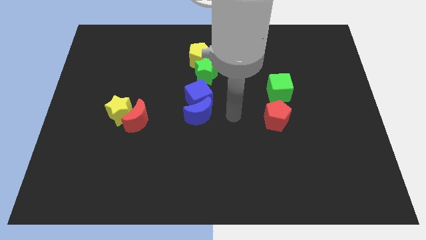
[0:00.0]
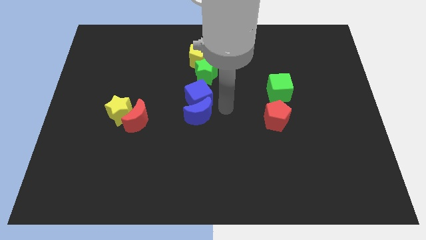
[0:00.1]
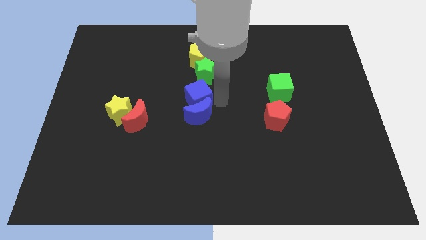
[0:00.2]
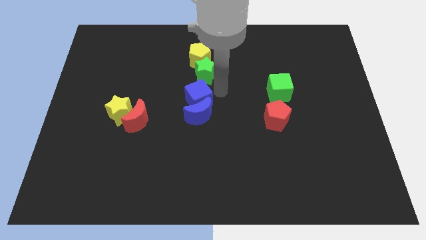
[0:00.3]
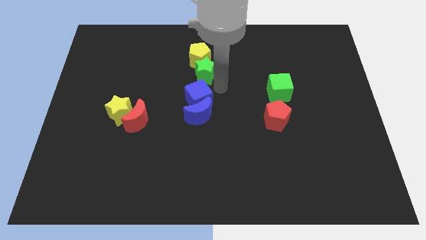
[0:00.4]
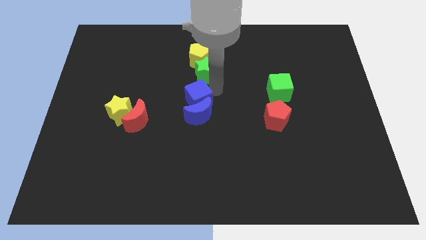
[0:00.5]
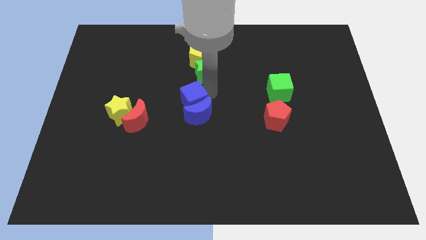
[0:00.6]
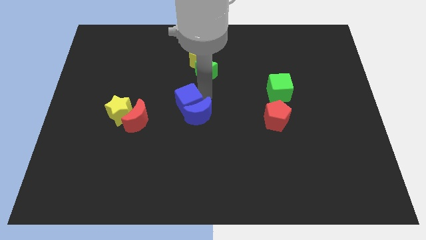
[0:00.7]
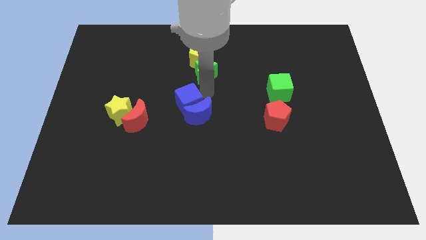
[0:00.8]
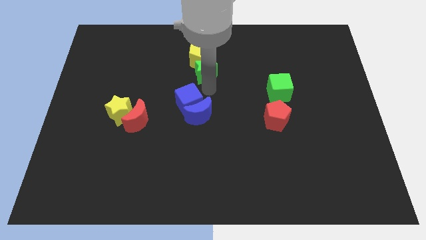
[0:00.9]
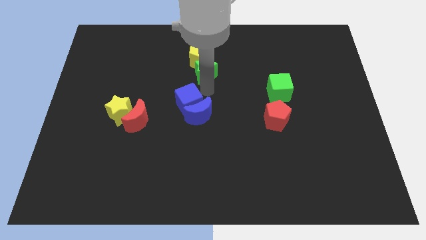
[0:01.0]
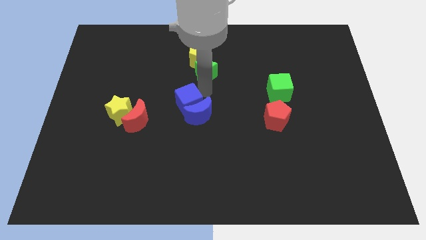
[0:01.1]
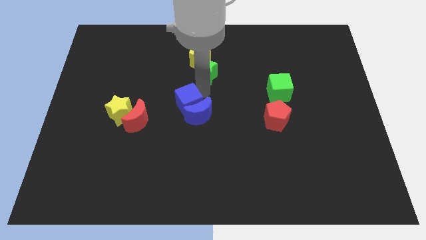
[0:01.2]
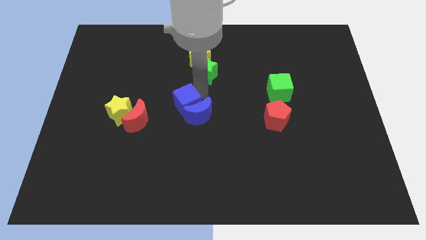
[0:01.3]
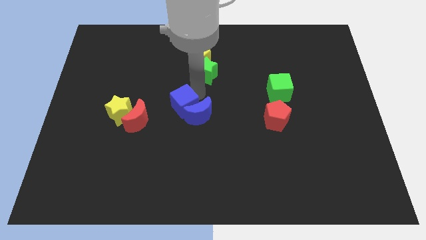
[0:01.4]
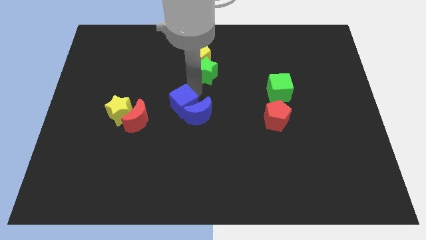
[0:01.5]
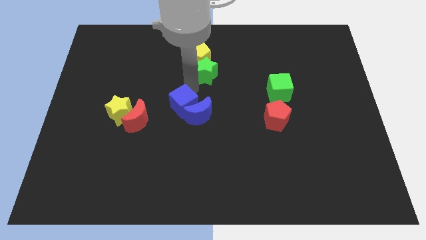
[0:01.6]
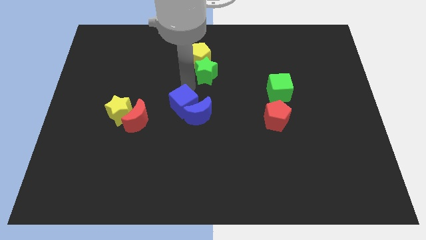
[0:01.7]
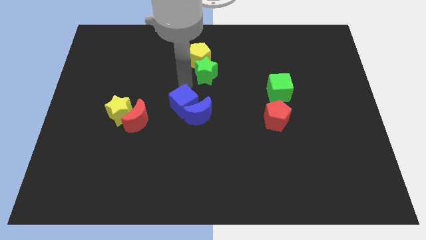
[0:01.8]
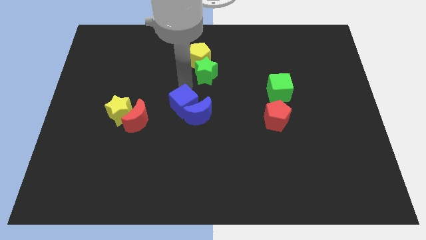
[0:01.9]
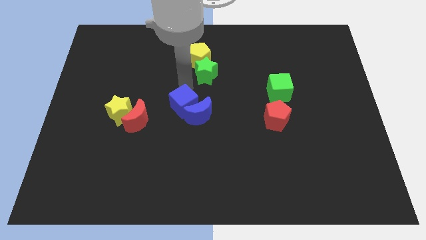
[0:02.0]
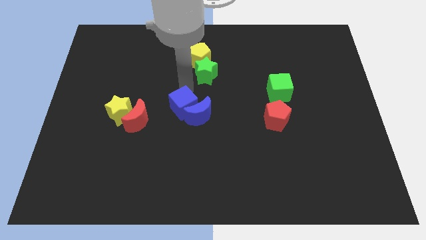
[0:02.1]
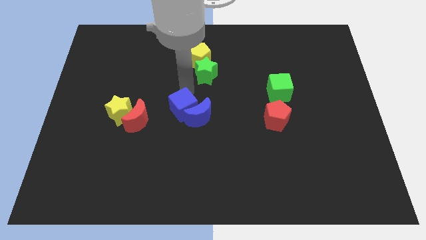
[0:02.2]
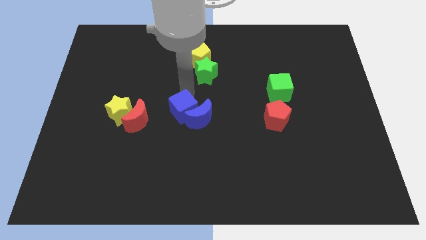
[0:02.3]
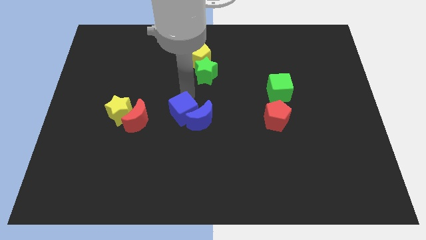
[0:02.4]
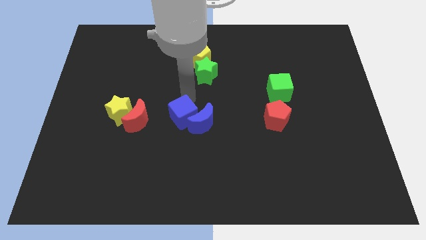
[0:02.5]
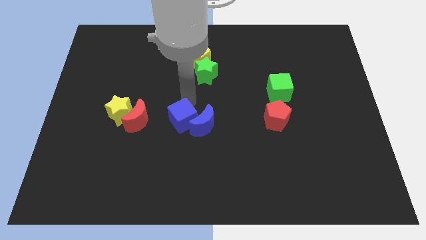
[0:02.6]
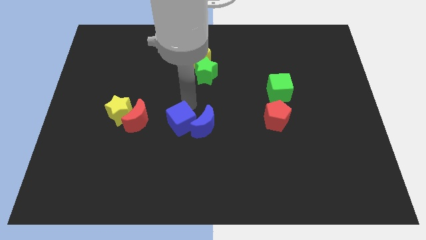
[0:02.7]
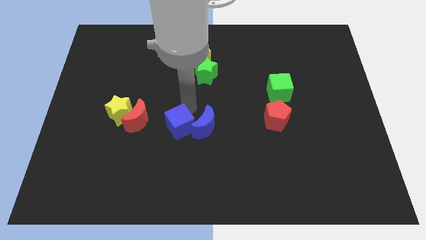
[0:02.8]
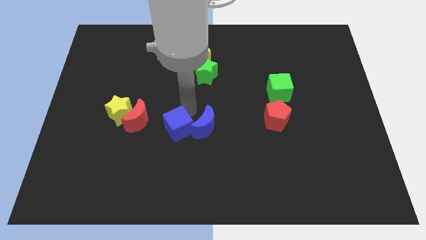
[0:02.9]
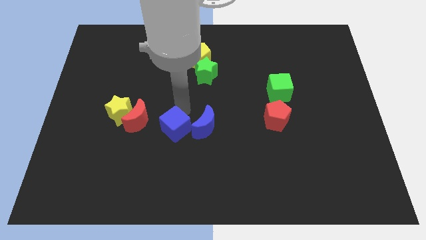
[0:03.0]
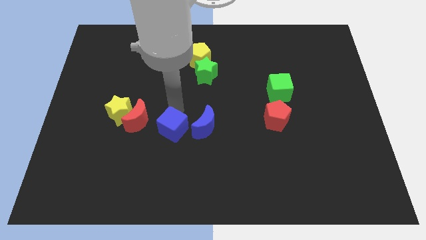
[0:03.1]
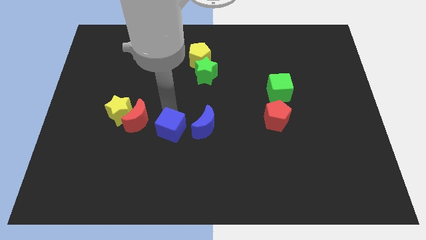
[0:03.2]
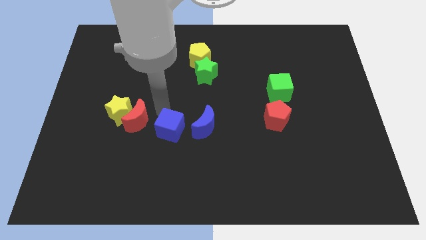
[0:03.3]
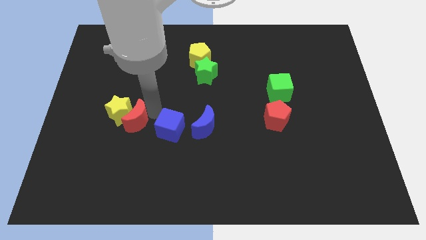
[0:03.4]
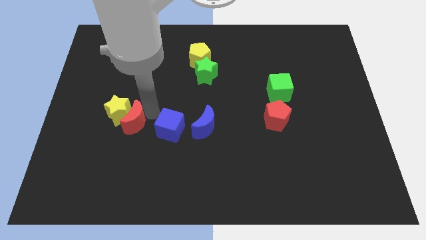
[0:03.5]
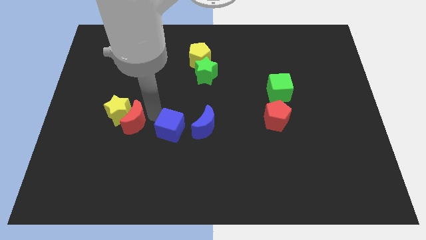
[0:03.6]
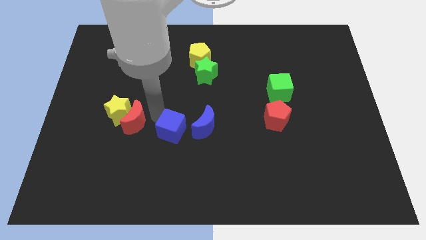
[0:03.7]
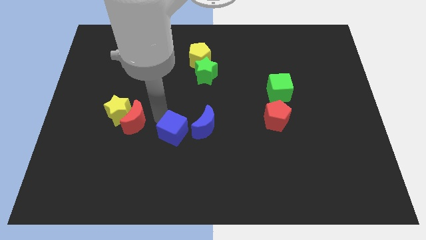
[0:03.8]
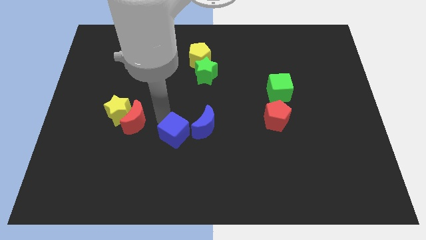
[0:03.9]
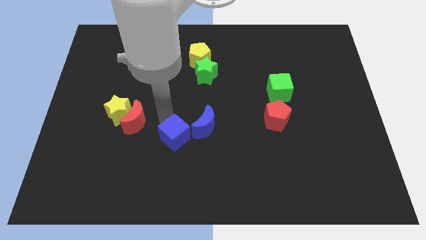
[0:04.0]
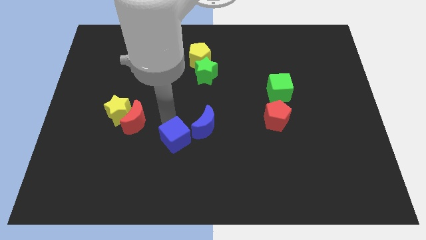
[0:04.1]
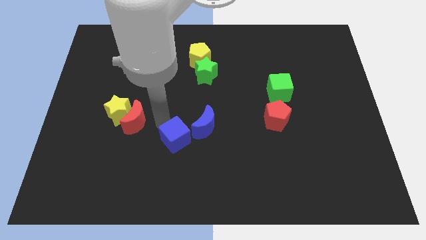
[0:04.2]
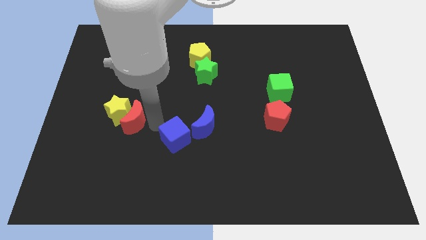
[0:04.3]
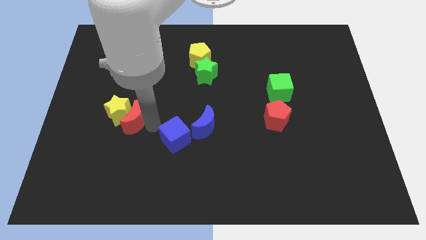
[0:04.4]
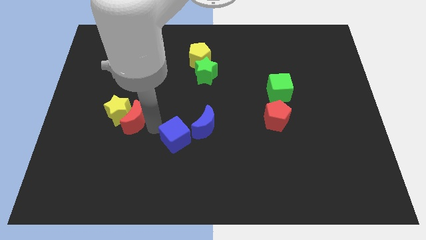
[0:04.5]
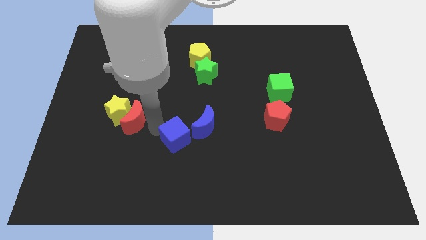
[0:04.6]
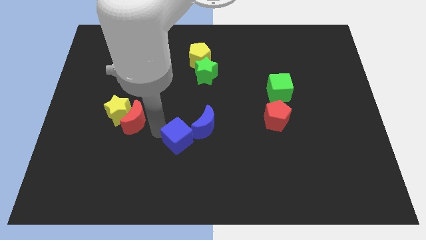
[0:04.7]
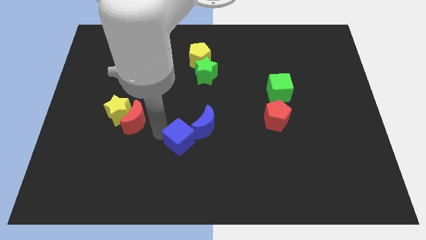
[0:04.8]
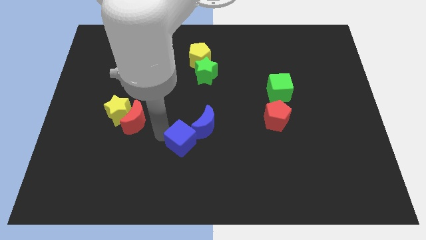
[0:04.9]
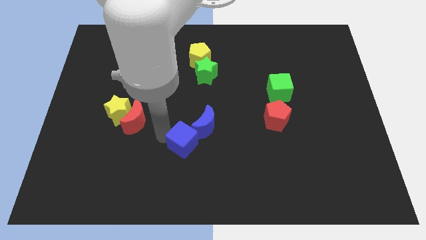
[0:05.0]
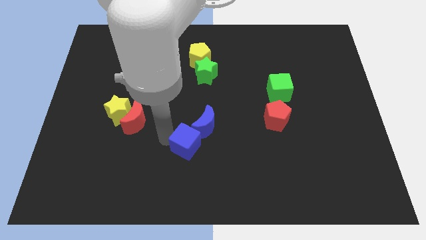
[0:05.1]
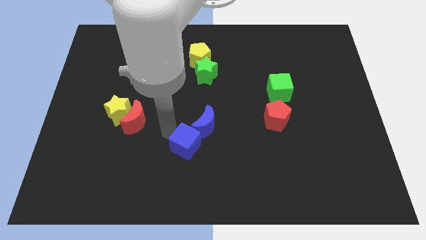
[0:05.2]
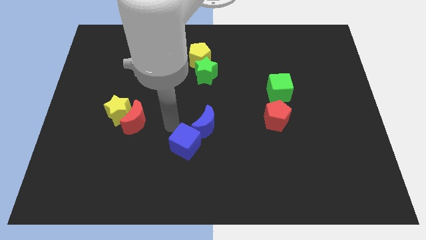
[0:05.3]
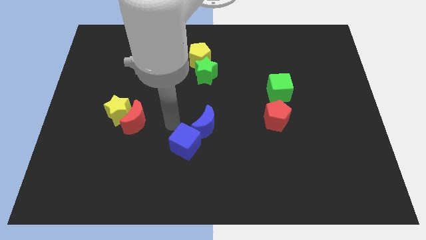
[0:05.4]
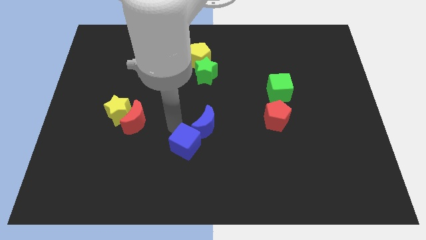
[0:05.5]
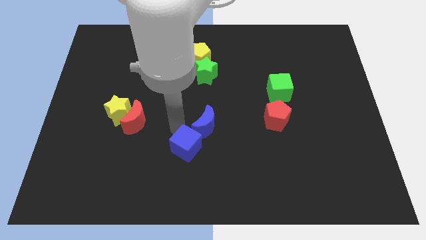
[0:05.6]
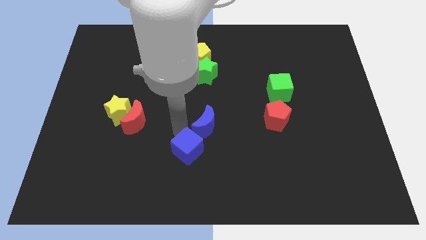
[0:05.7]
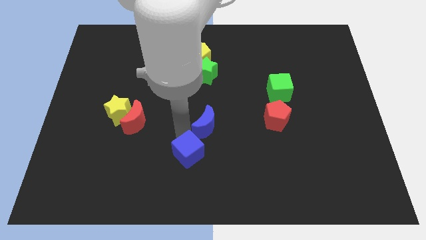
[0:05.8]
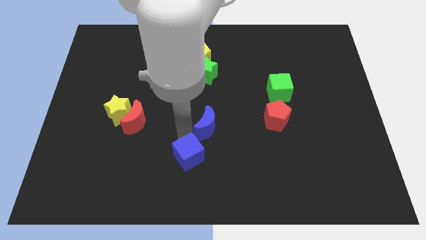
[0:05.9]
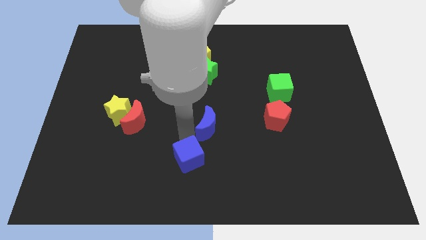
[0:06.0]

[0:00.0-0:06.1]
put the blue cube to the bottom
